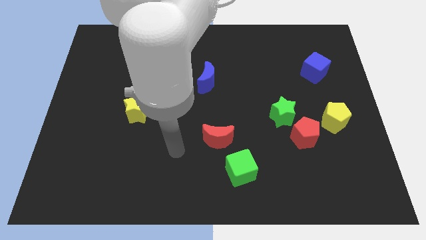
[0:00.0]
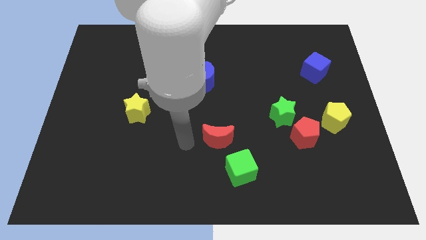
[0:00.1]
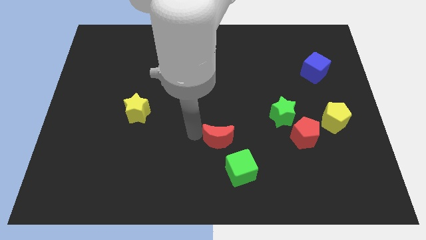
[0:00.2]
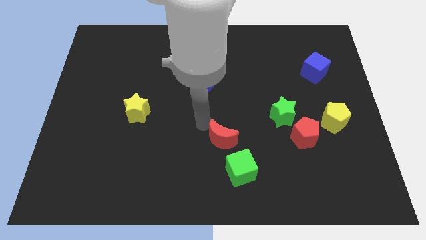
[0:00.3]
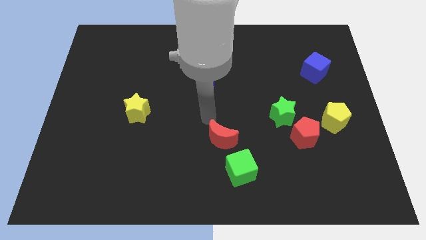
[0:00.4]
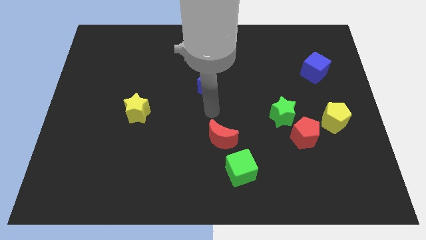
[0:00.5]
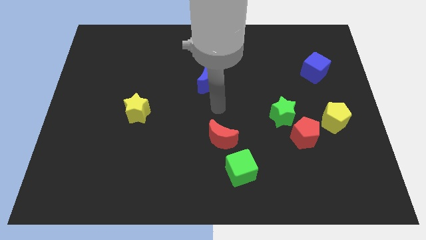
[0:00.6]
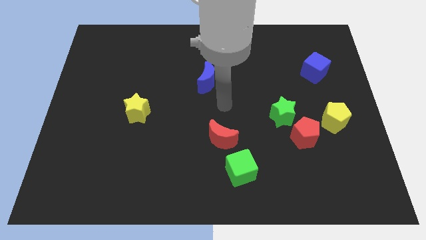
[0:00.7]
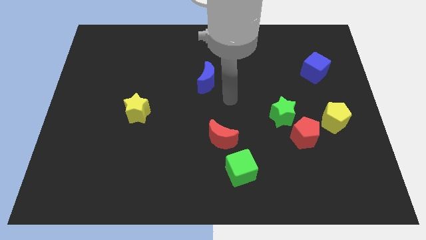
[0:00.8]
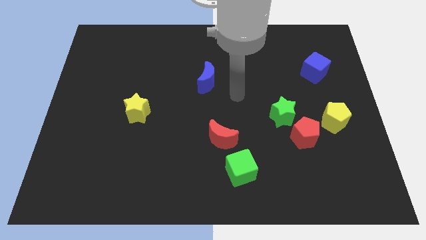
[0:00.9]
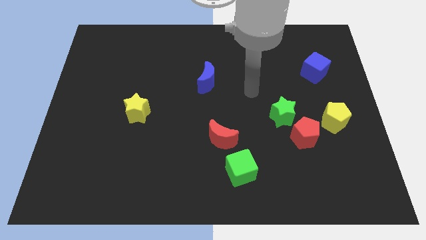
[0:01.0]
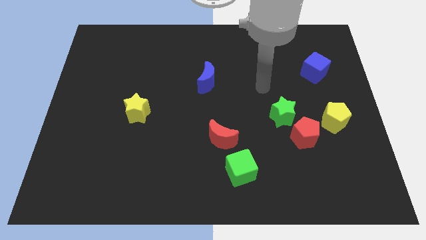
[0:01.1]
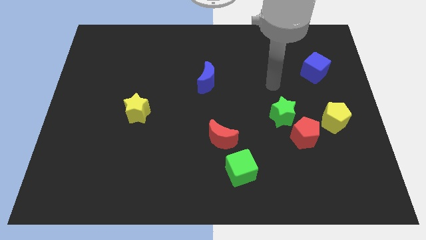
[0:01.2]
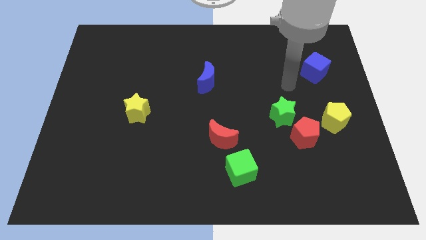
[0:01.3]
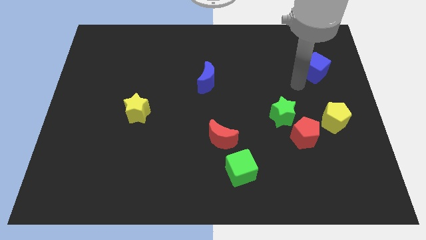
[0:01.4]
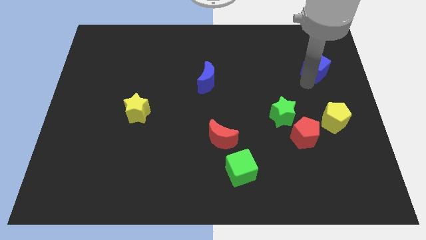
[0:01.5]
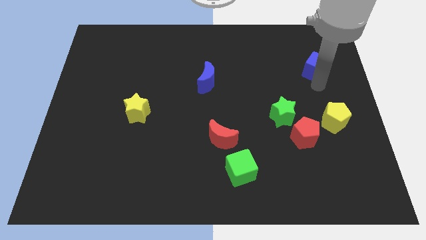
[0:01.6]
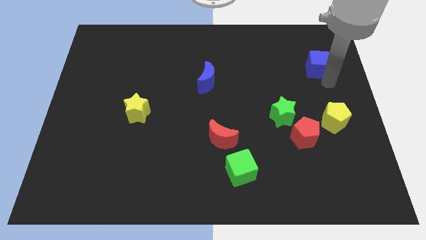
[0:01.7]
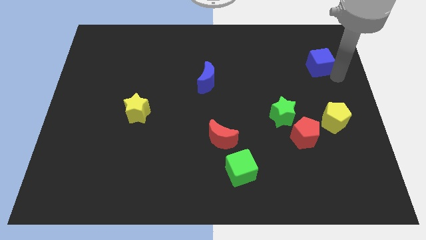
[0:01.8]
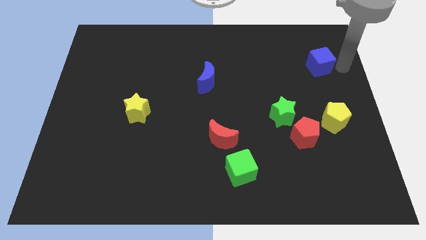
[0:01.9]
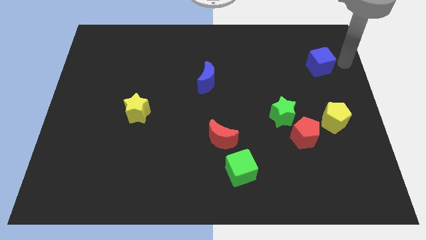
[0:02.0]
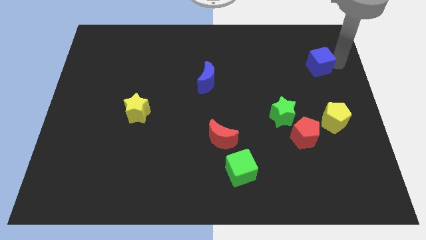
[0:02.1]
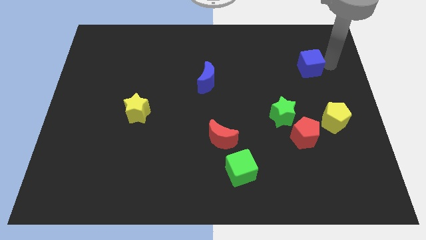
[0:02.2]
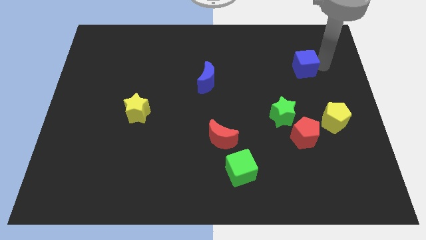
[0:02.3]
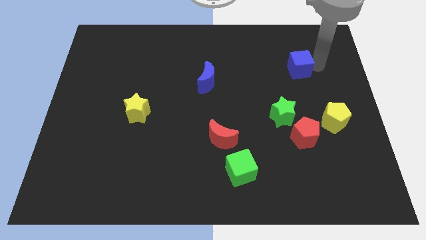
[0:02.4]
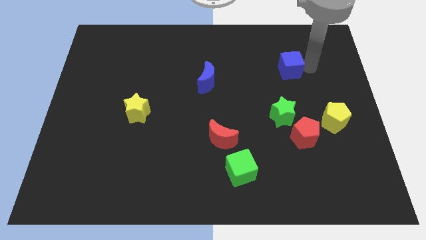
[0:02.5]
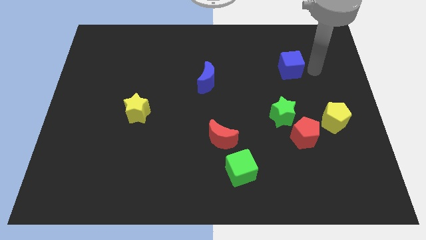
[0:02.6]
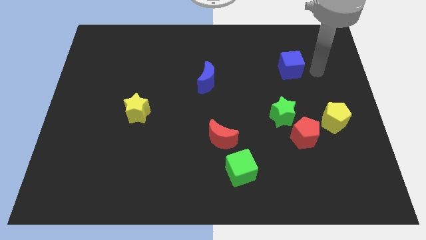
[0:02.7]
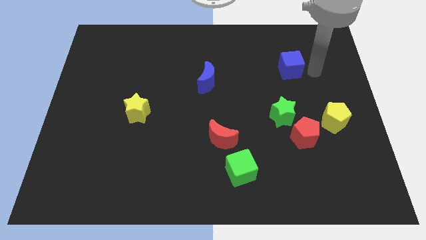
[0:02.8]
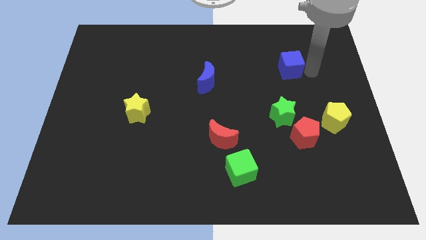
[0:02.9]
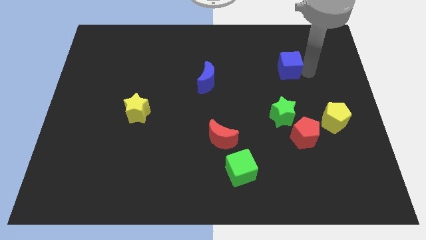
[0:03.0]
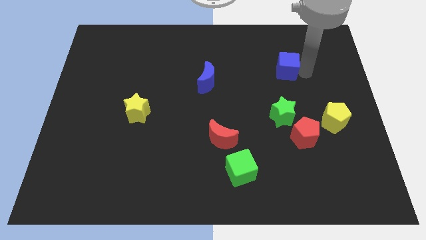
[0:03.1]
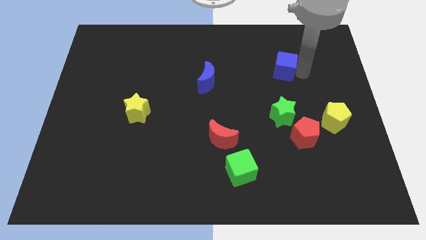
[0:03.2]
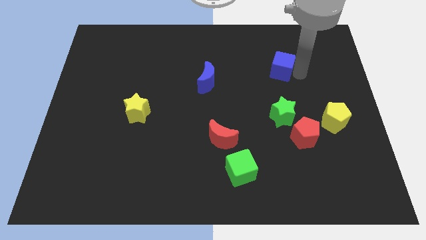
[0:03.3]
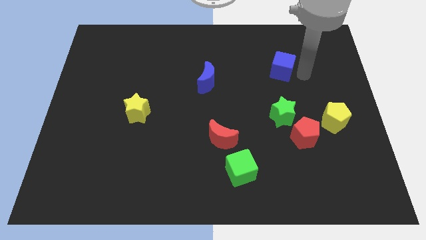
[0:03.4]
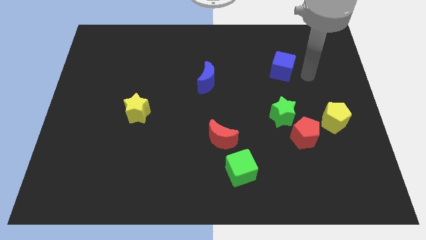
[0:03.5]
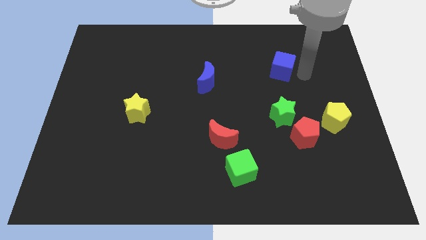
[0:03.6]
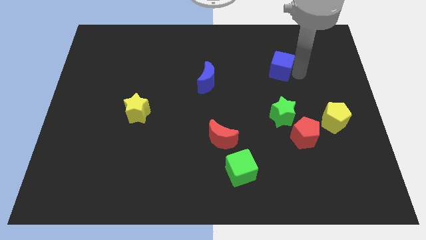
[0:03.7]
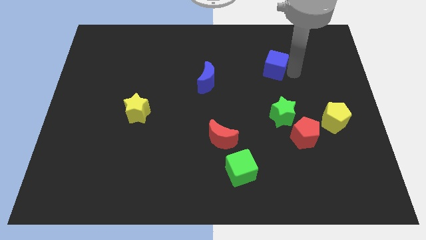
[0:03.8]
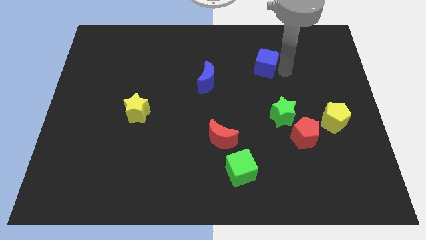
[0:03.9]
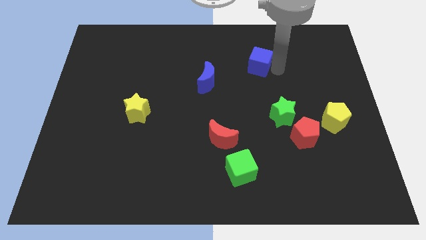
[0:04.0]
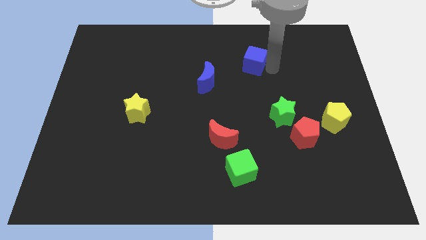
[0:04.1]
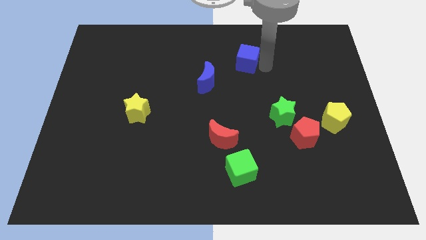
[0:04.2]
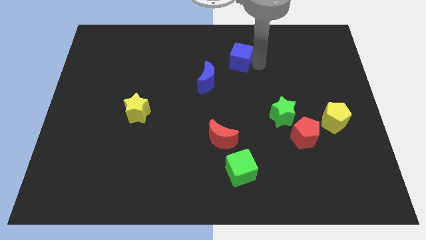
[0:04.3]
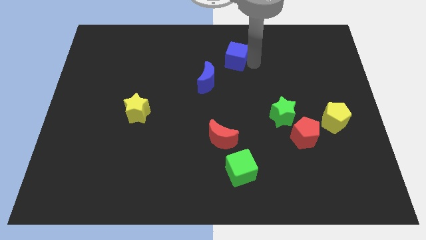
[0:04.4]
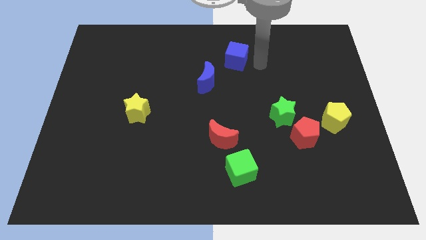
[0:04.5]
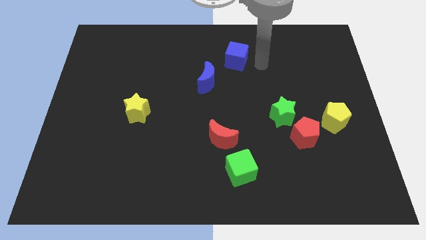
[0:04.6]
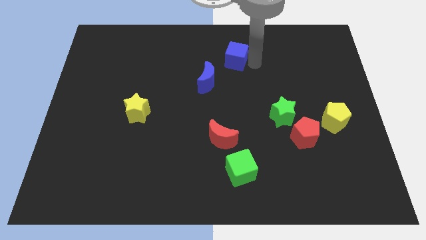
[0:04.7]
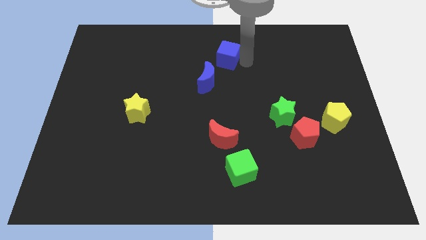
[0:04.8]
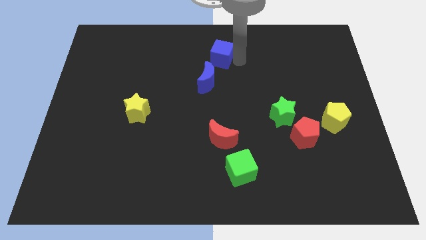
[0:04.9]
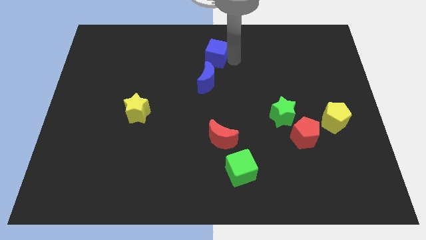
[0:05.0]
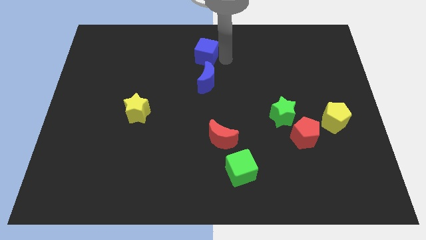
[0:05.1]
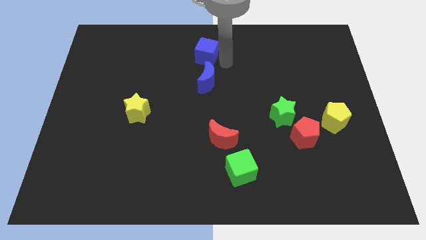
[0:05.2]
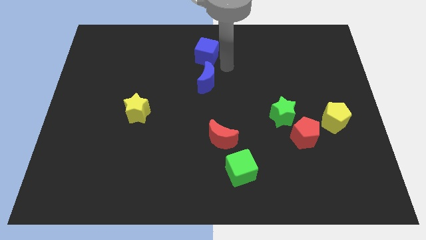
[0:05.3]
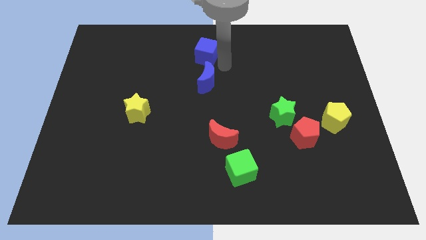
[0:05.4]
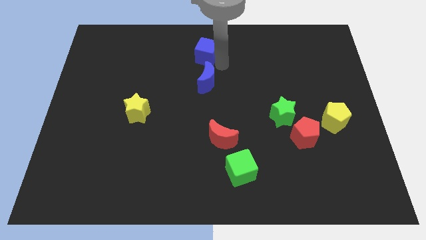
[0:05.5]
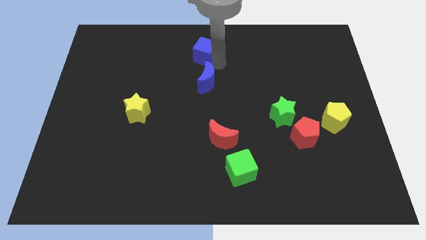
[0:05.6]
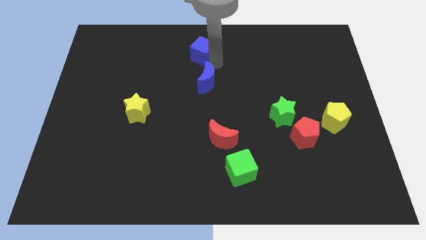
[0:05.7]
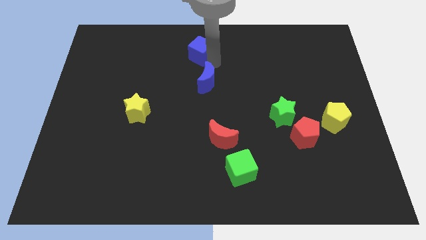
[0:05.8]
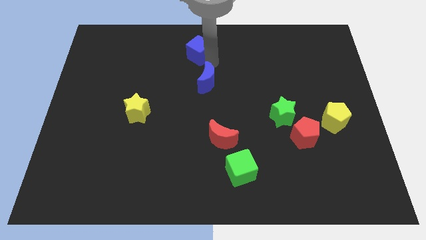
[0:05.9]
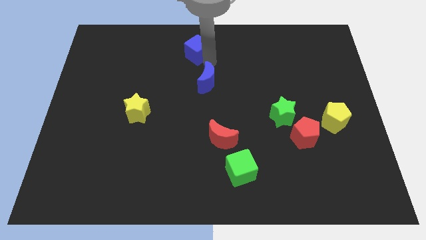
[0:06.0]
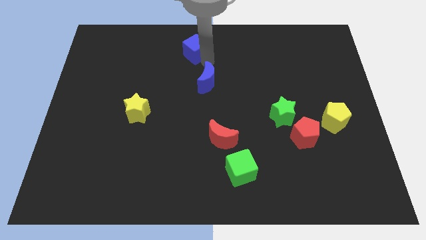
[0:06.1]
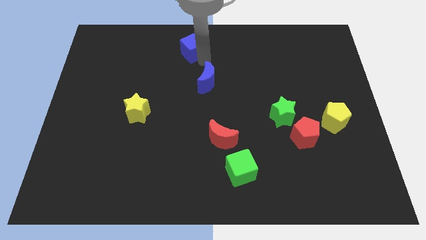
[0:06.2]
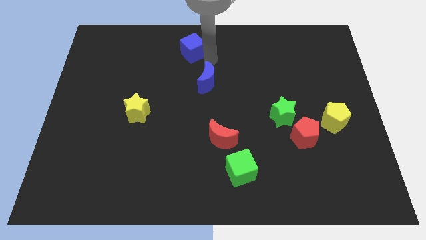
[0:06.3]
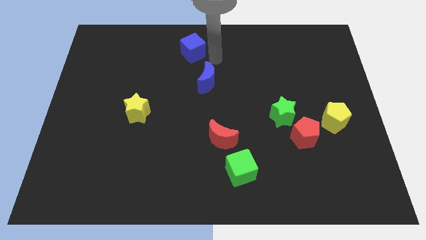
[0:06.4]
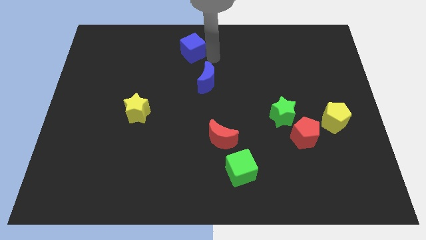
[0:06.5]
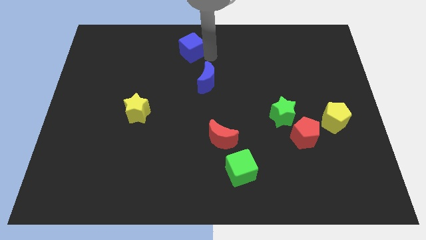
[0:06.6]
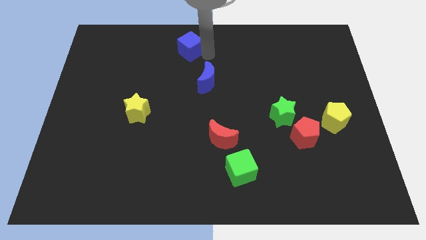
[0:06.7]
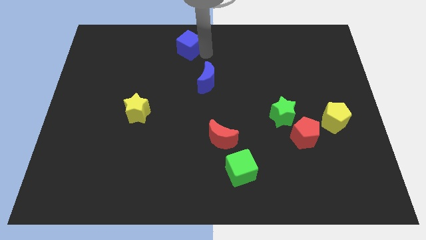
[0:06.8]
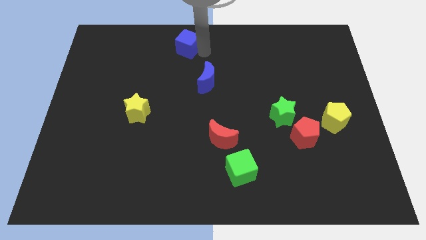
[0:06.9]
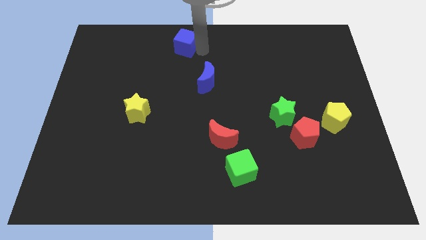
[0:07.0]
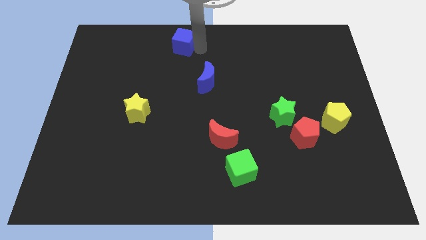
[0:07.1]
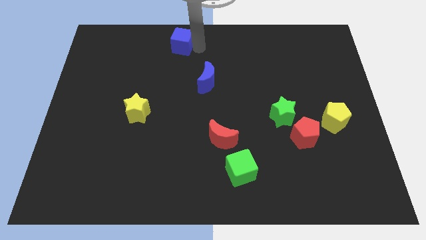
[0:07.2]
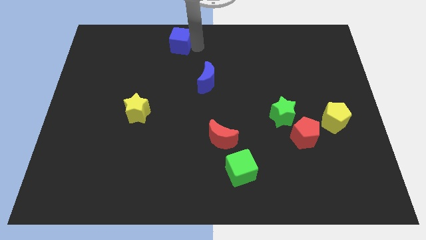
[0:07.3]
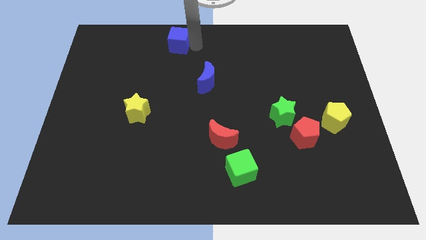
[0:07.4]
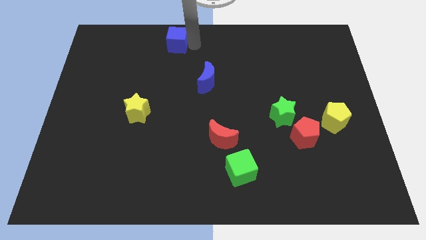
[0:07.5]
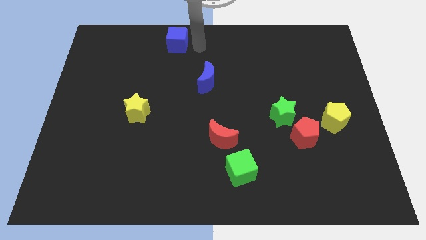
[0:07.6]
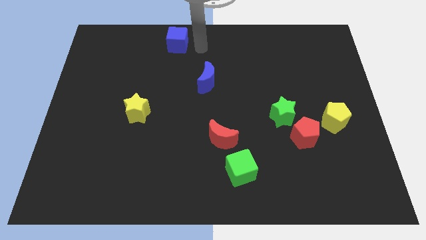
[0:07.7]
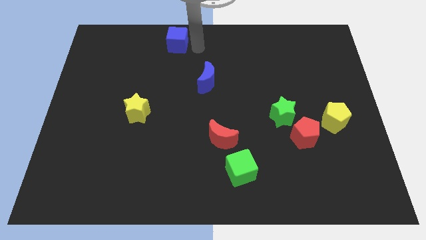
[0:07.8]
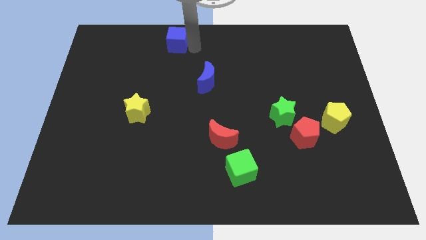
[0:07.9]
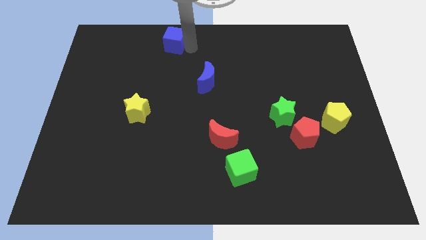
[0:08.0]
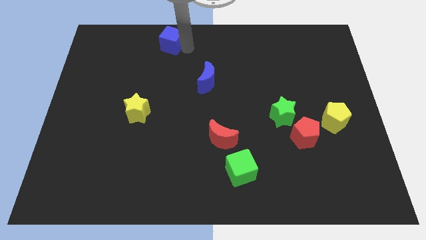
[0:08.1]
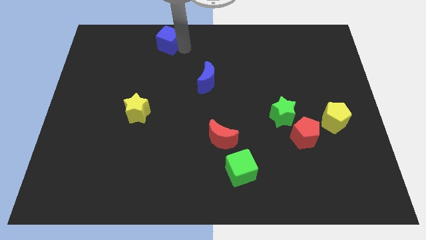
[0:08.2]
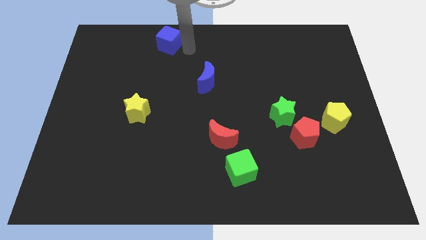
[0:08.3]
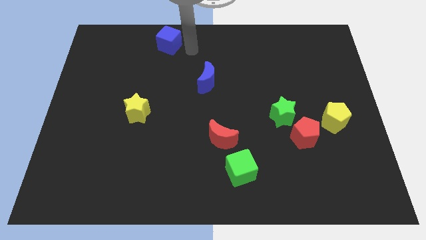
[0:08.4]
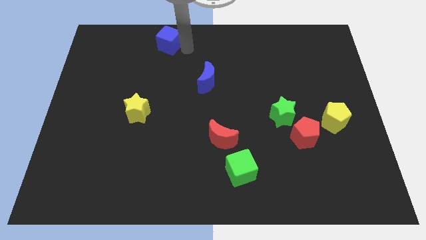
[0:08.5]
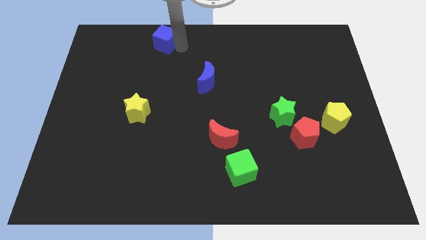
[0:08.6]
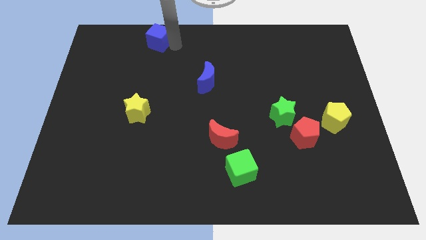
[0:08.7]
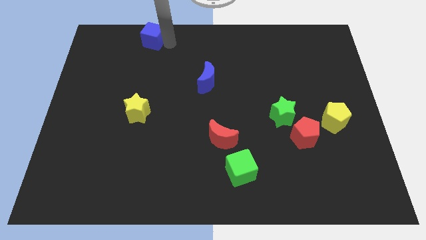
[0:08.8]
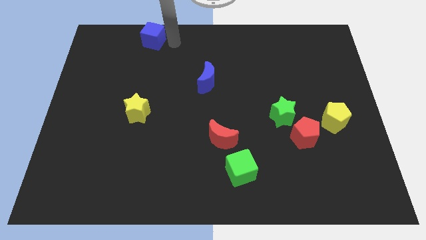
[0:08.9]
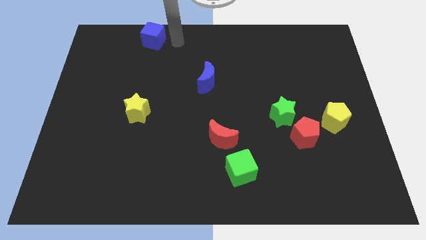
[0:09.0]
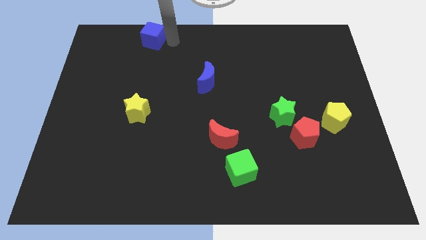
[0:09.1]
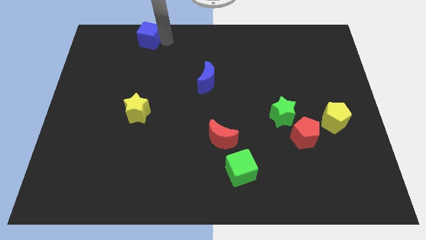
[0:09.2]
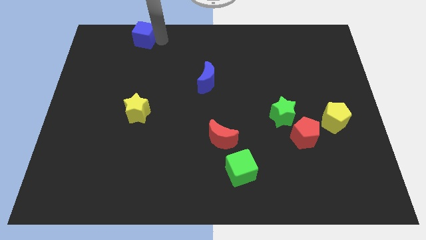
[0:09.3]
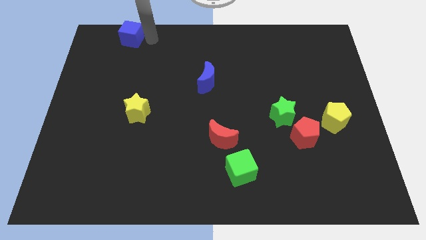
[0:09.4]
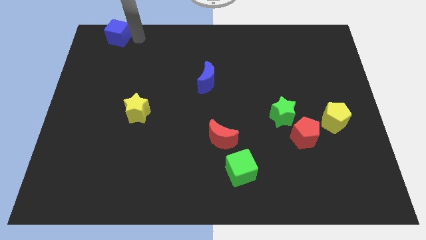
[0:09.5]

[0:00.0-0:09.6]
slide the blue cube to the upper left corner
